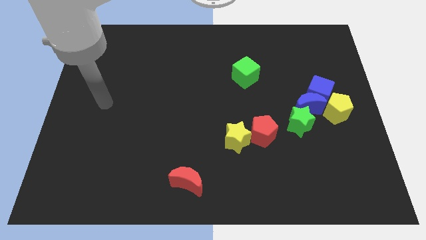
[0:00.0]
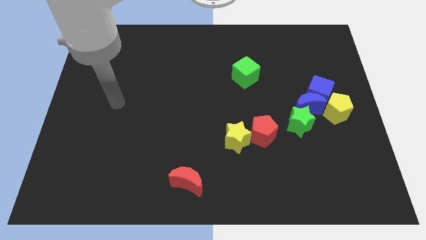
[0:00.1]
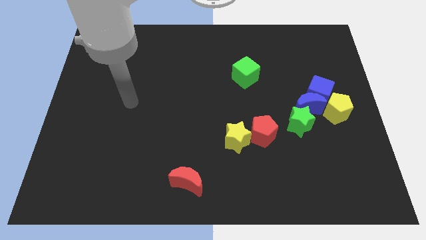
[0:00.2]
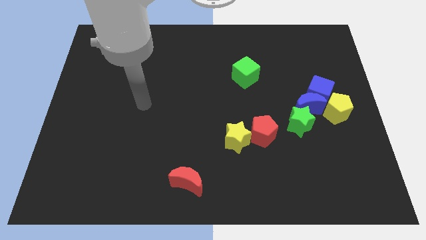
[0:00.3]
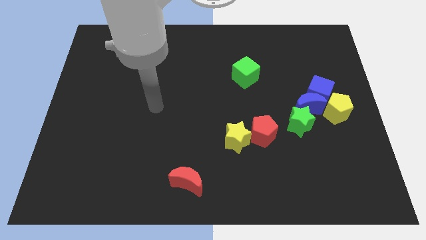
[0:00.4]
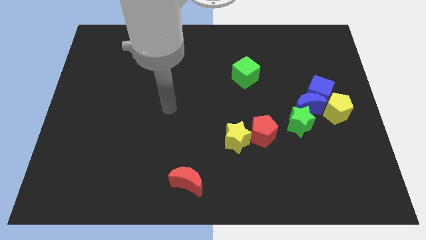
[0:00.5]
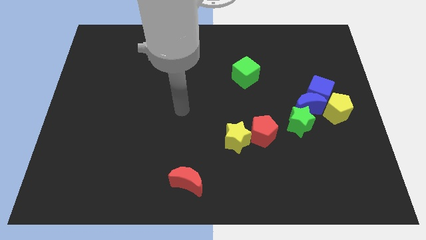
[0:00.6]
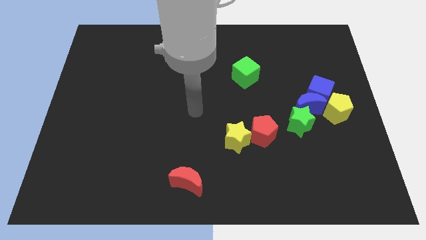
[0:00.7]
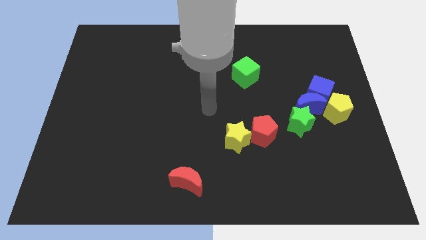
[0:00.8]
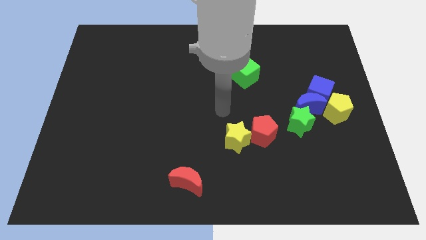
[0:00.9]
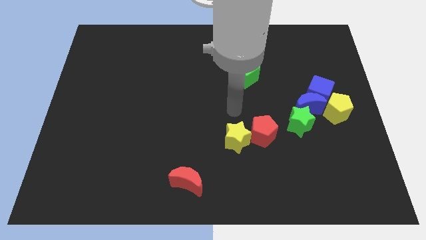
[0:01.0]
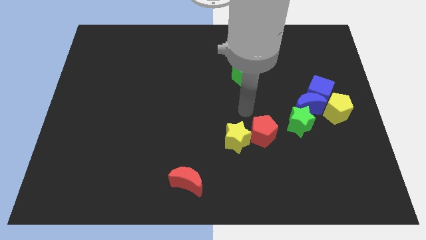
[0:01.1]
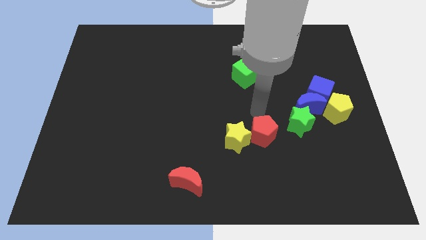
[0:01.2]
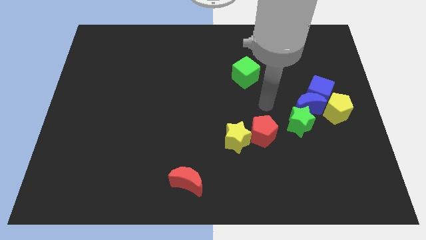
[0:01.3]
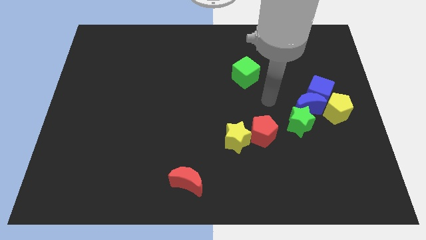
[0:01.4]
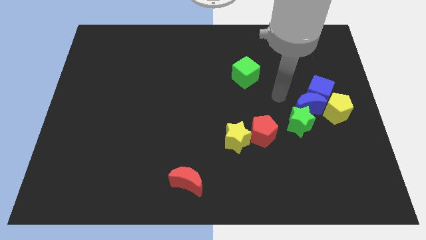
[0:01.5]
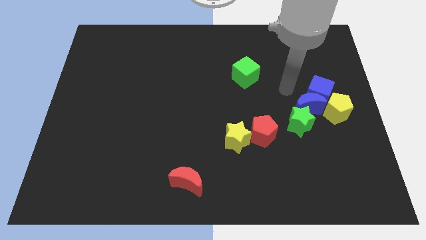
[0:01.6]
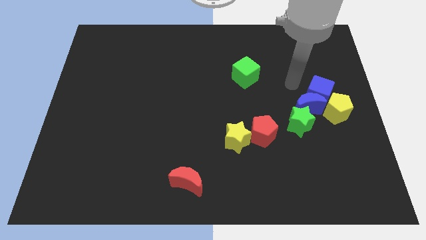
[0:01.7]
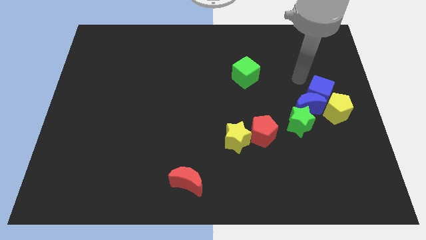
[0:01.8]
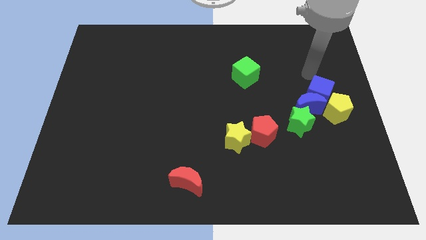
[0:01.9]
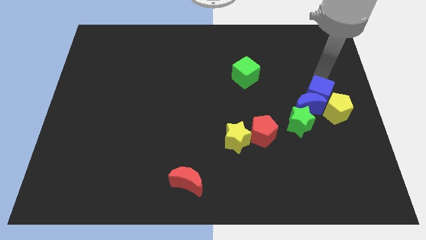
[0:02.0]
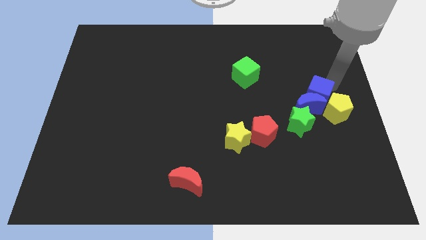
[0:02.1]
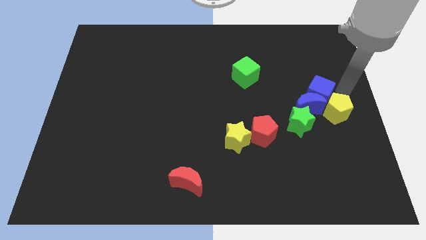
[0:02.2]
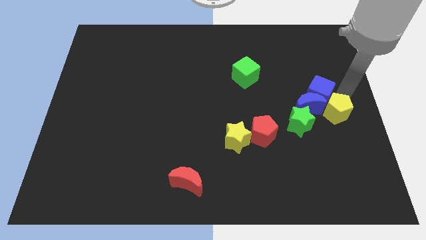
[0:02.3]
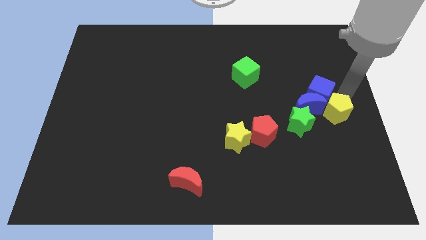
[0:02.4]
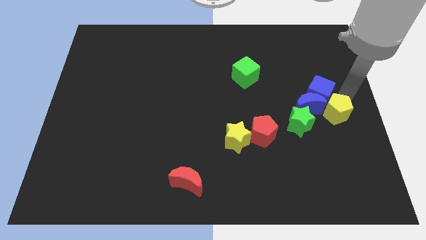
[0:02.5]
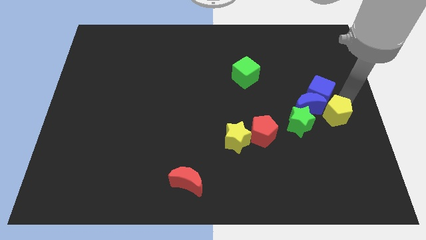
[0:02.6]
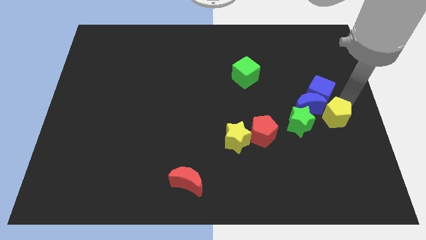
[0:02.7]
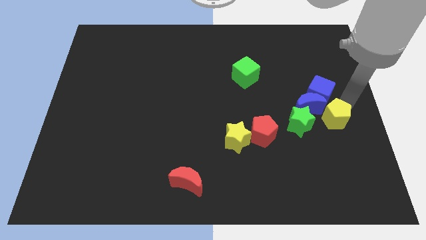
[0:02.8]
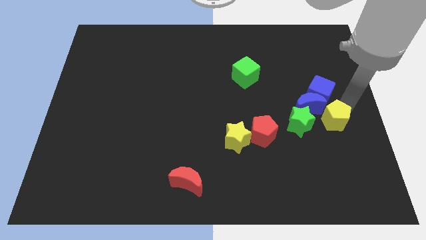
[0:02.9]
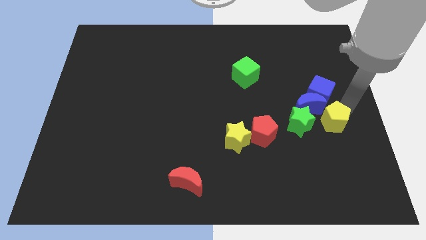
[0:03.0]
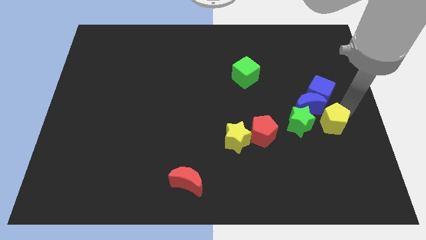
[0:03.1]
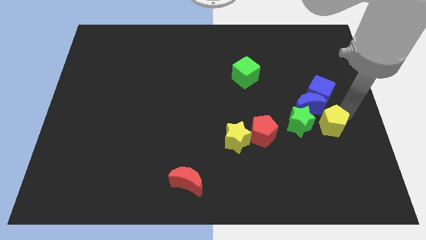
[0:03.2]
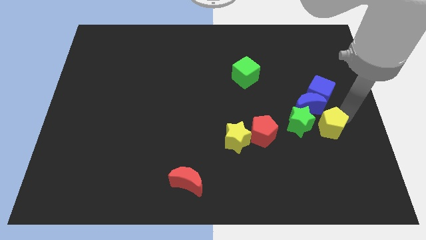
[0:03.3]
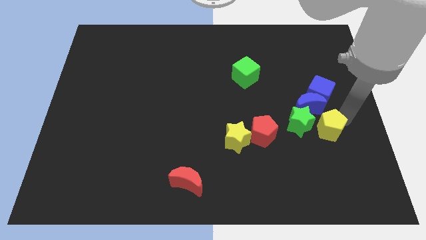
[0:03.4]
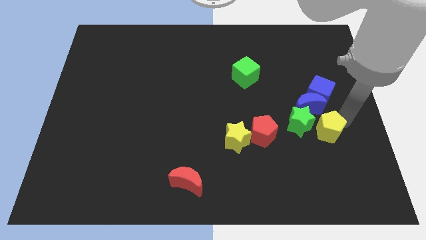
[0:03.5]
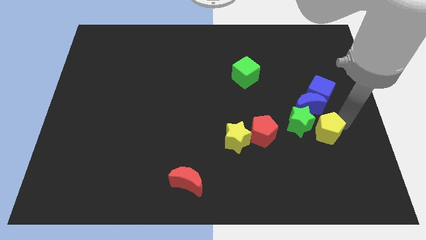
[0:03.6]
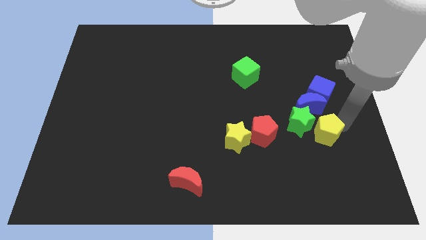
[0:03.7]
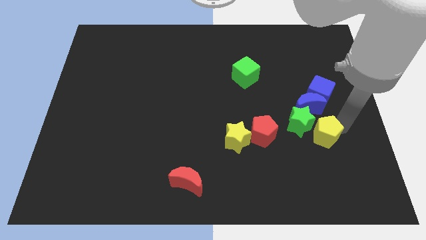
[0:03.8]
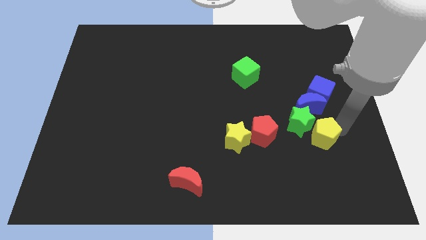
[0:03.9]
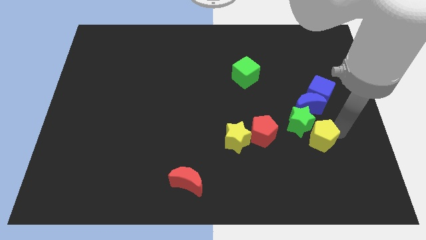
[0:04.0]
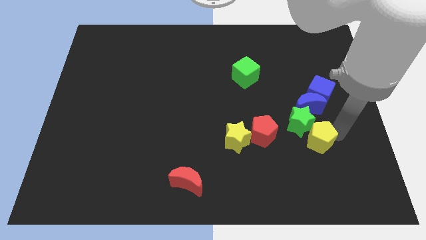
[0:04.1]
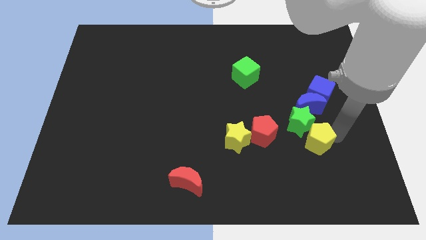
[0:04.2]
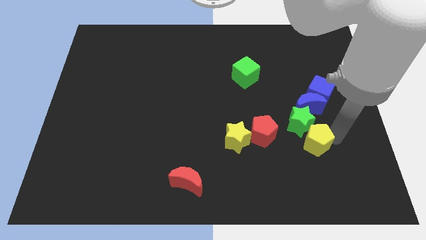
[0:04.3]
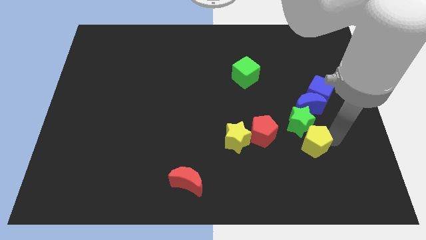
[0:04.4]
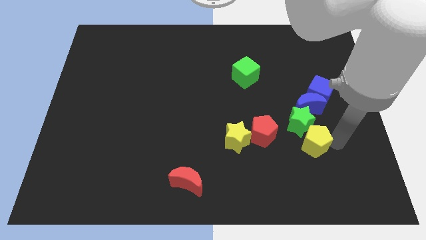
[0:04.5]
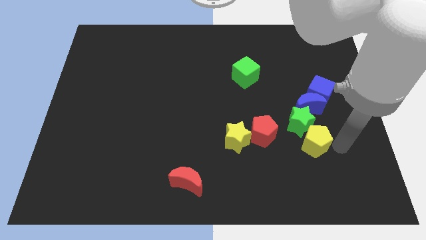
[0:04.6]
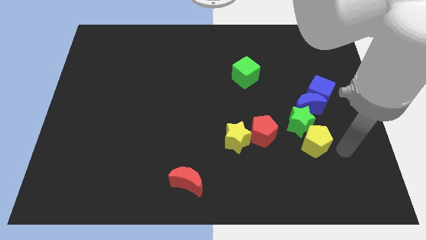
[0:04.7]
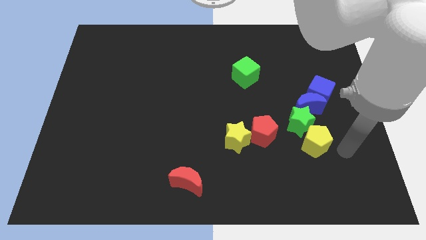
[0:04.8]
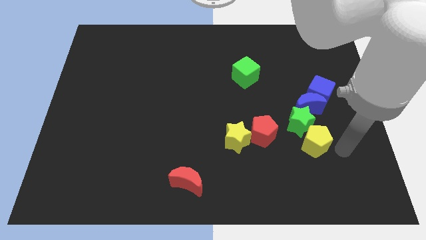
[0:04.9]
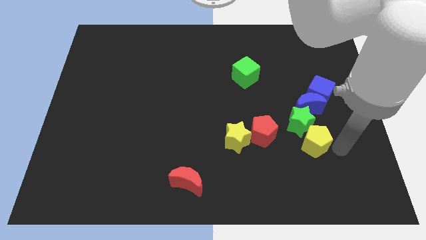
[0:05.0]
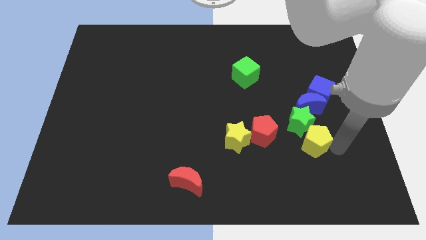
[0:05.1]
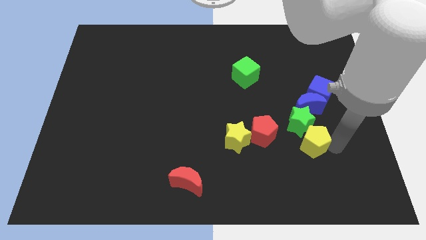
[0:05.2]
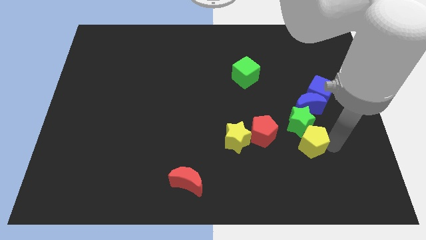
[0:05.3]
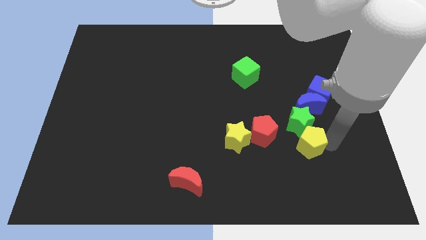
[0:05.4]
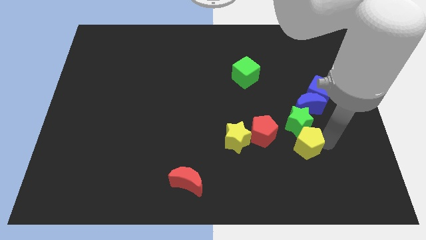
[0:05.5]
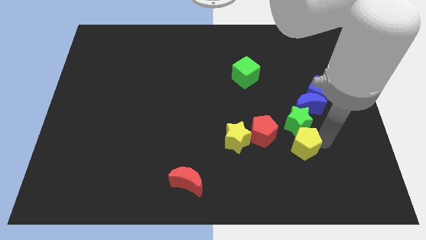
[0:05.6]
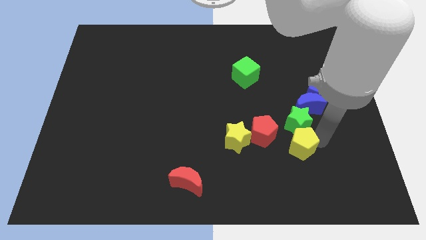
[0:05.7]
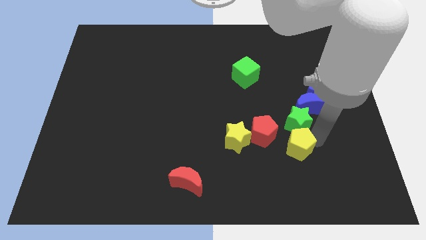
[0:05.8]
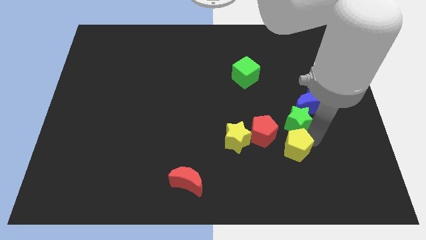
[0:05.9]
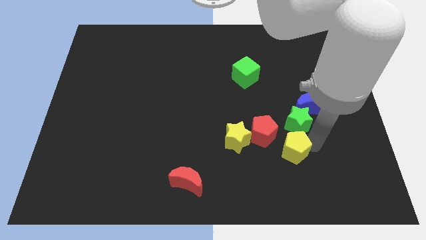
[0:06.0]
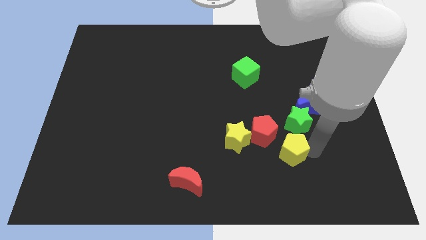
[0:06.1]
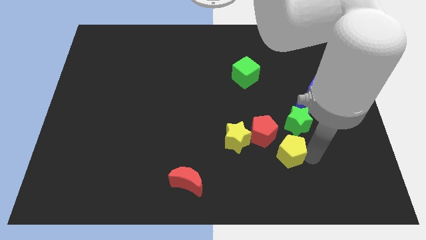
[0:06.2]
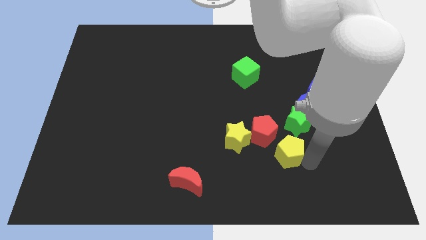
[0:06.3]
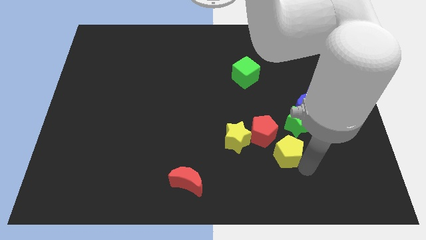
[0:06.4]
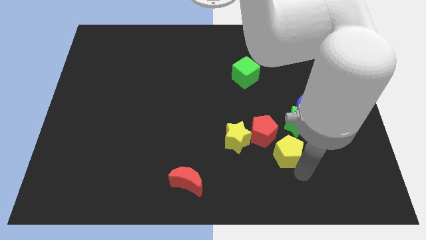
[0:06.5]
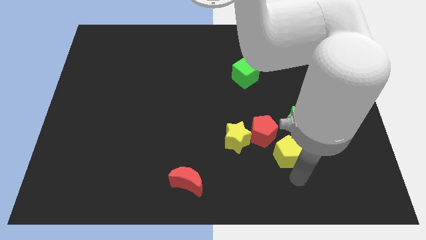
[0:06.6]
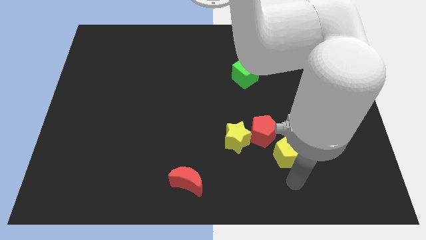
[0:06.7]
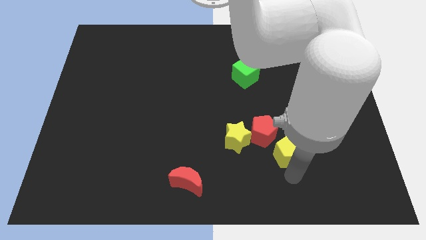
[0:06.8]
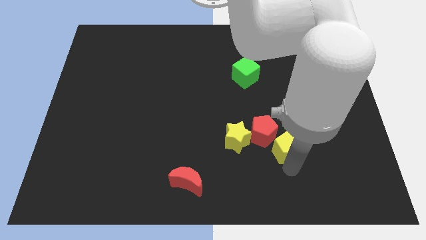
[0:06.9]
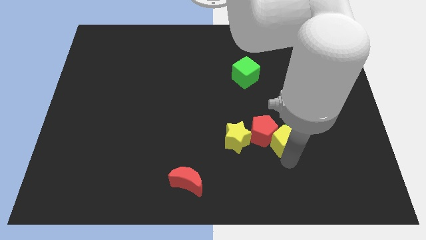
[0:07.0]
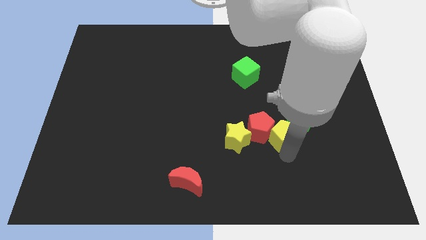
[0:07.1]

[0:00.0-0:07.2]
move the yellow pentagon to the left of the green star
